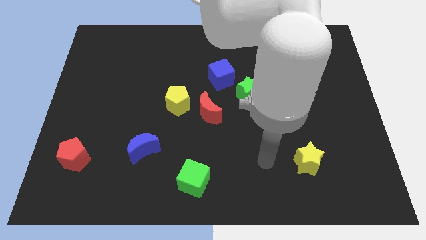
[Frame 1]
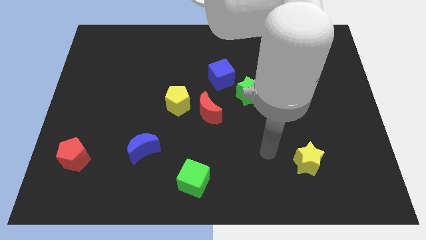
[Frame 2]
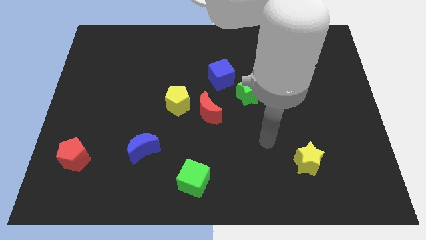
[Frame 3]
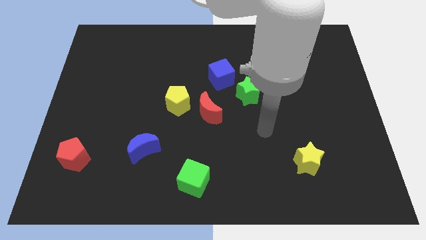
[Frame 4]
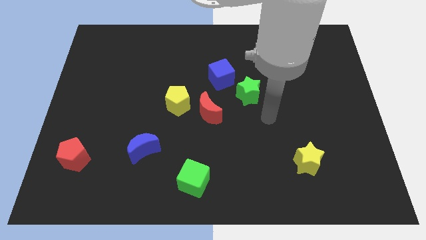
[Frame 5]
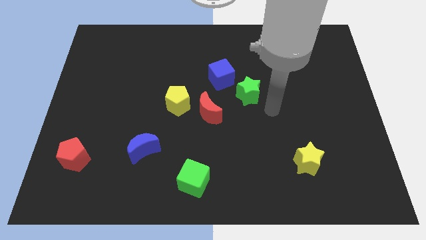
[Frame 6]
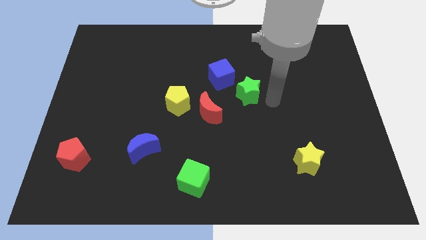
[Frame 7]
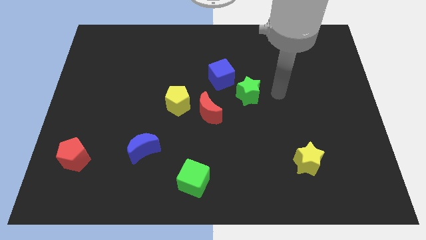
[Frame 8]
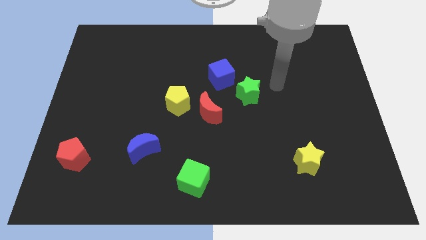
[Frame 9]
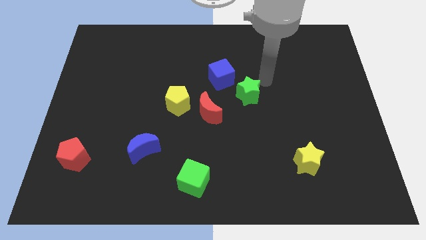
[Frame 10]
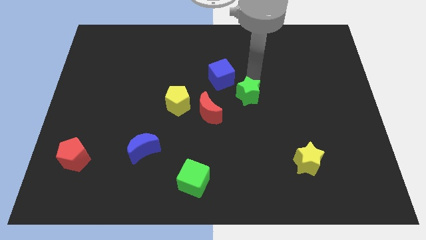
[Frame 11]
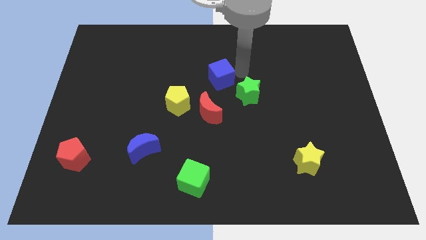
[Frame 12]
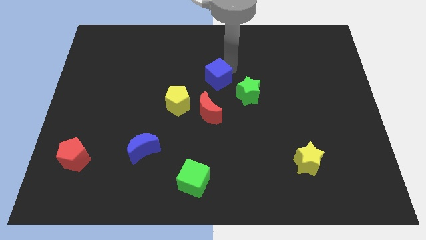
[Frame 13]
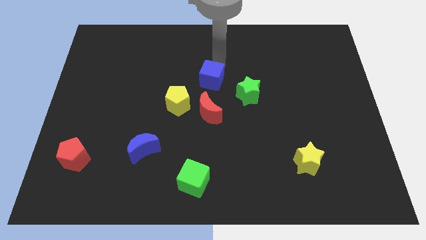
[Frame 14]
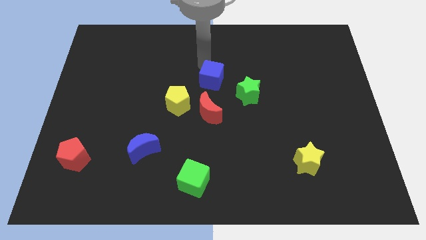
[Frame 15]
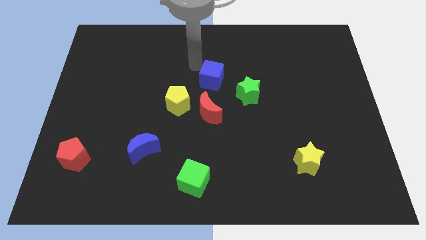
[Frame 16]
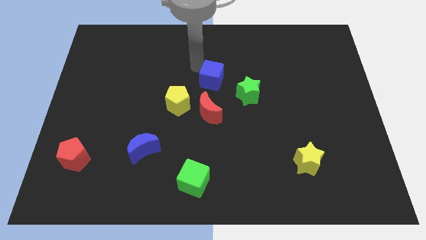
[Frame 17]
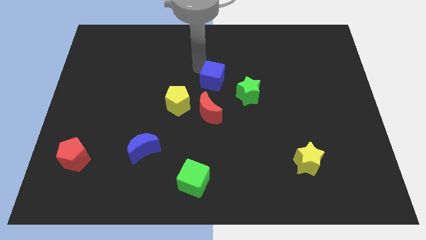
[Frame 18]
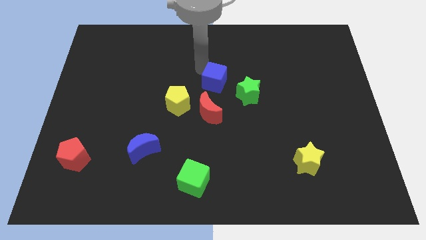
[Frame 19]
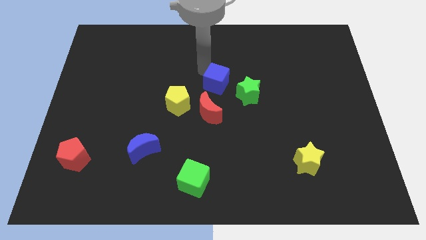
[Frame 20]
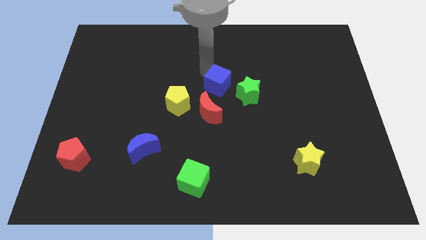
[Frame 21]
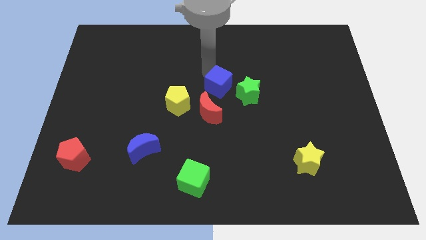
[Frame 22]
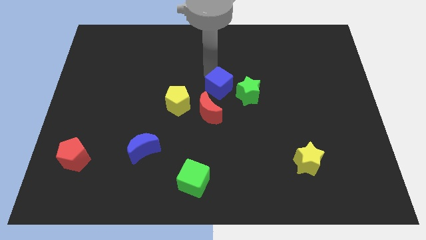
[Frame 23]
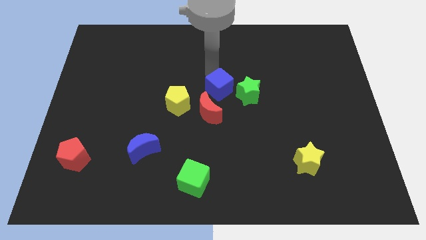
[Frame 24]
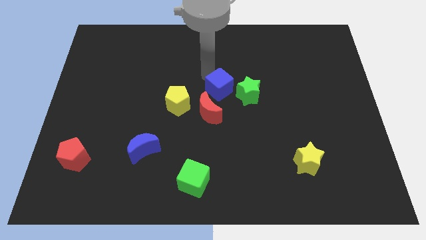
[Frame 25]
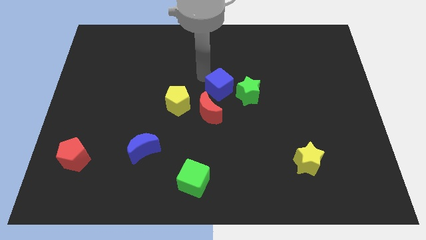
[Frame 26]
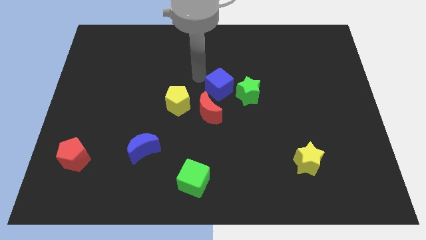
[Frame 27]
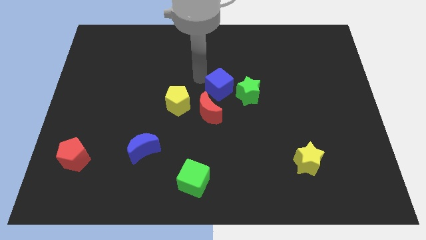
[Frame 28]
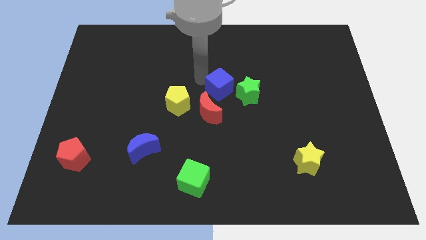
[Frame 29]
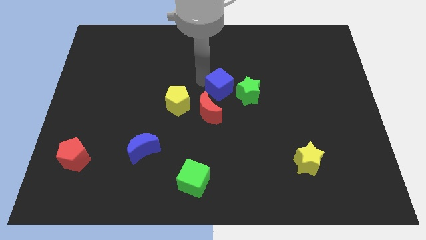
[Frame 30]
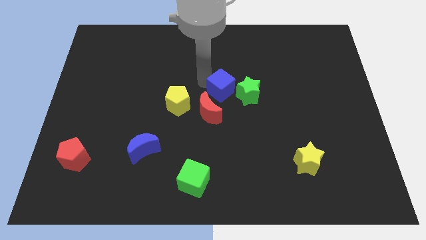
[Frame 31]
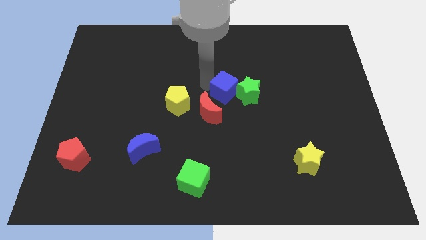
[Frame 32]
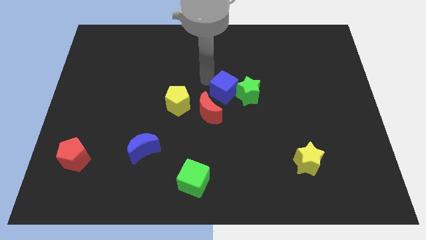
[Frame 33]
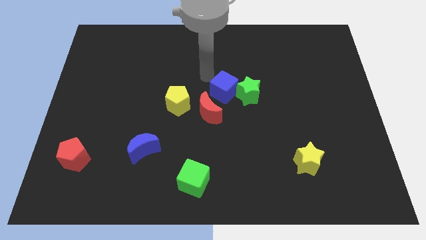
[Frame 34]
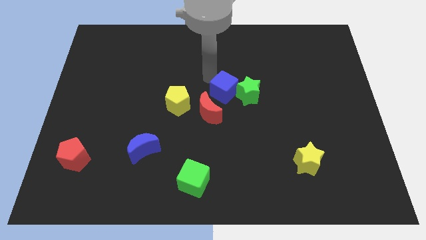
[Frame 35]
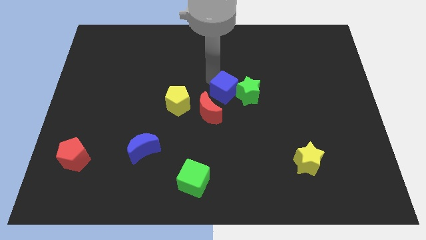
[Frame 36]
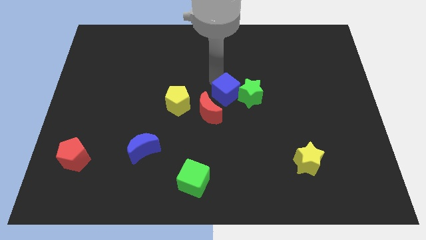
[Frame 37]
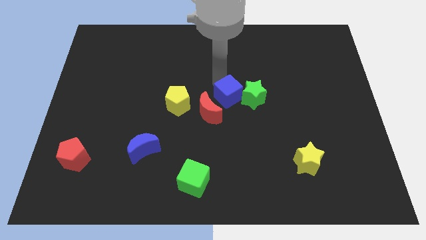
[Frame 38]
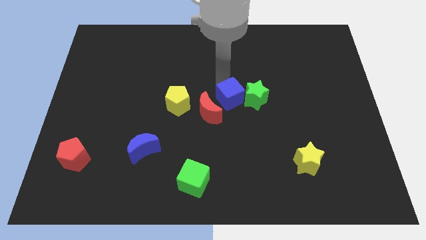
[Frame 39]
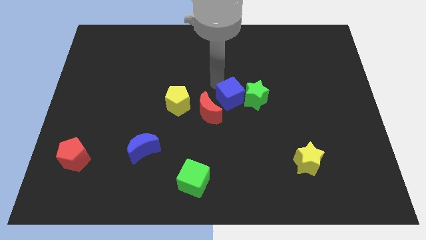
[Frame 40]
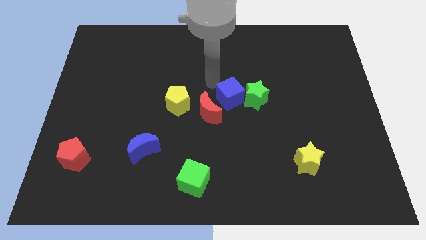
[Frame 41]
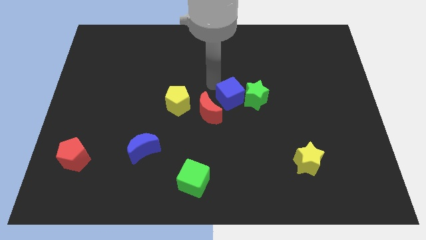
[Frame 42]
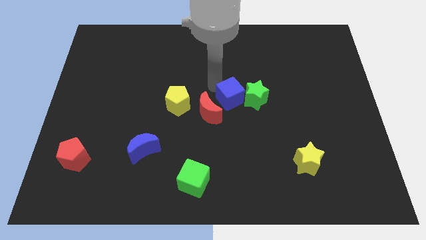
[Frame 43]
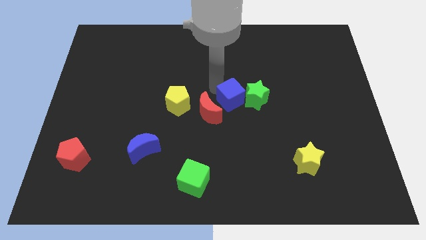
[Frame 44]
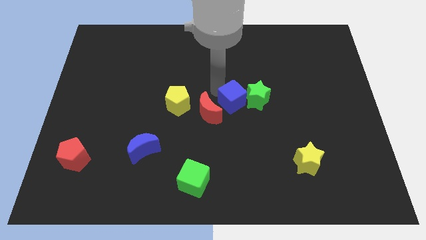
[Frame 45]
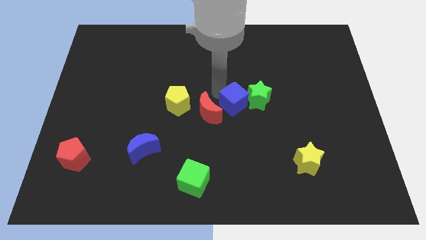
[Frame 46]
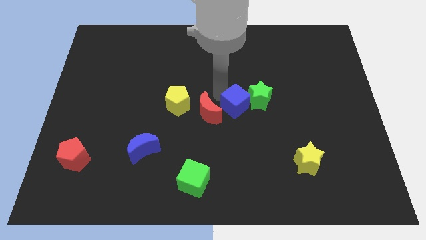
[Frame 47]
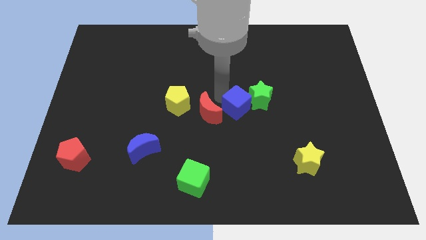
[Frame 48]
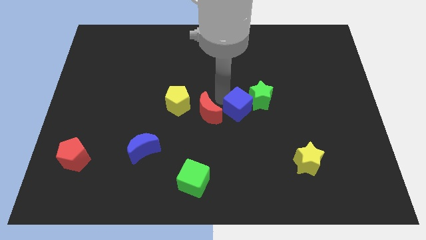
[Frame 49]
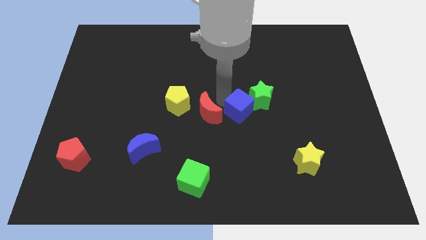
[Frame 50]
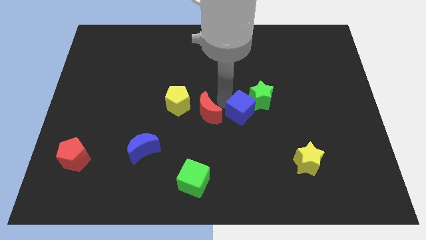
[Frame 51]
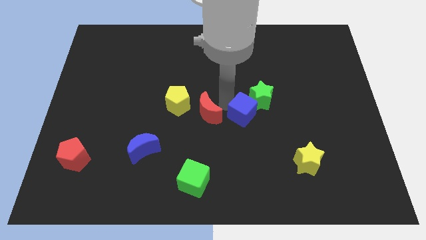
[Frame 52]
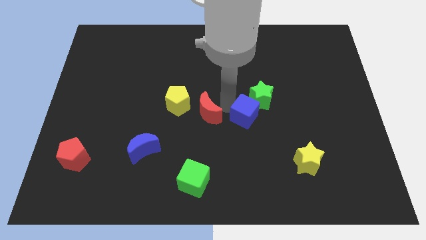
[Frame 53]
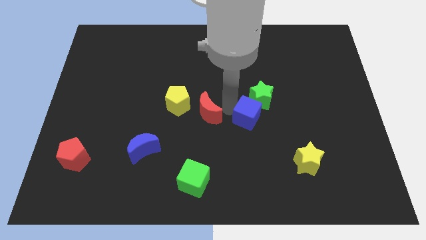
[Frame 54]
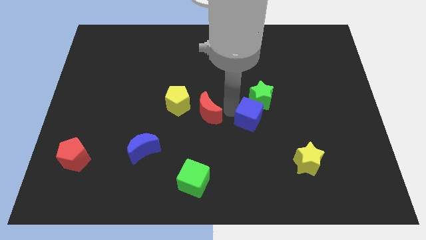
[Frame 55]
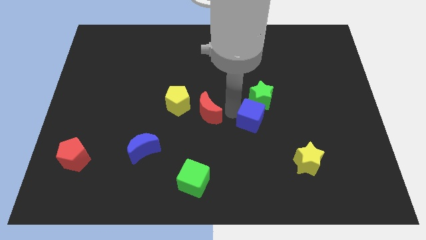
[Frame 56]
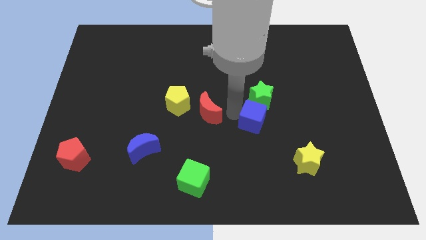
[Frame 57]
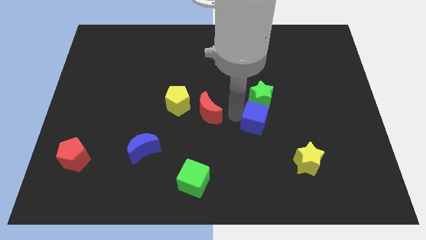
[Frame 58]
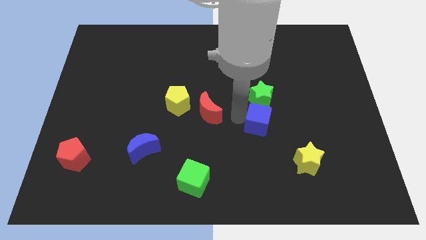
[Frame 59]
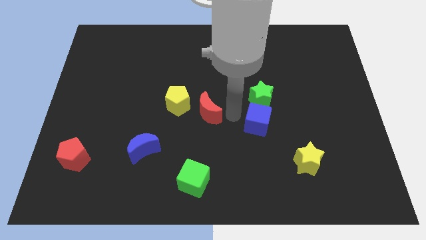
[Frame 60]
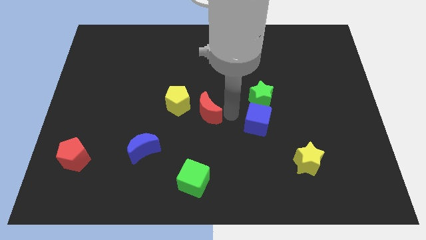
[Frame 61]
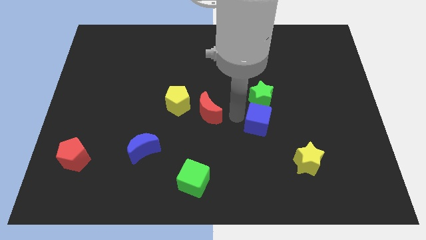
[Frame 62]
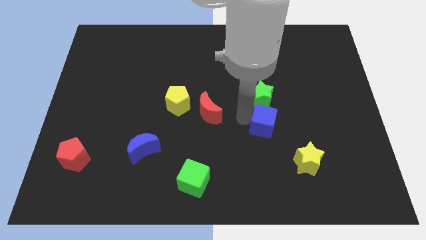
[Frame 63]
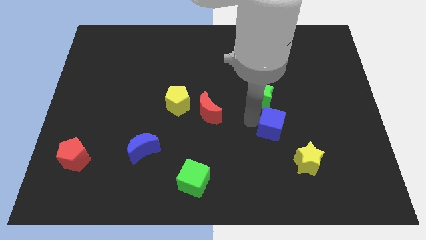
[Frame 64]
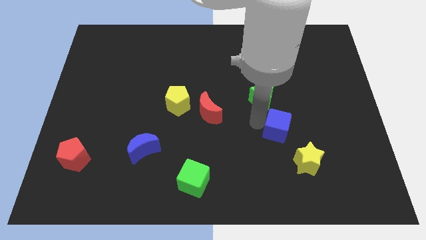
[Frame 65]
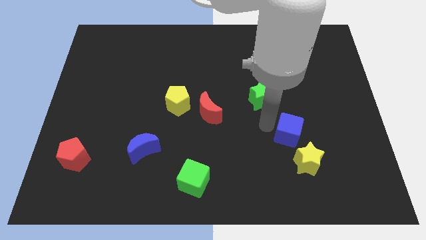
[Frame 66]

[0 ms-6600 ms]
slide the blue cube diagonally down and to the right

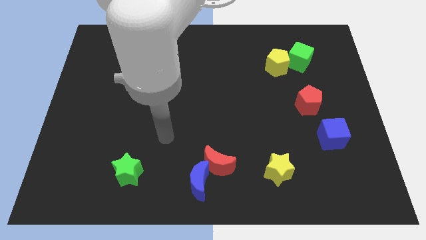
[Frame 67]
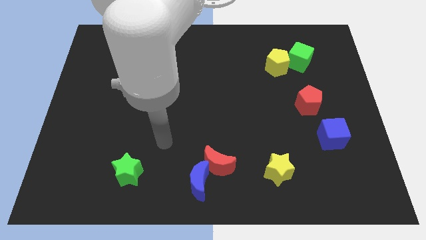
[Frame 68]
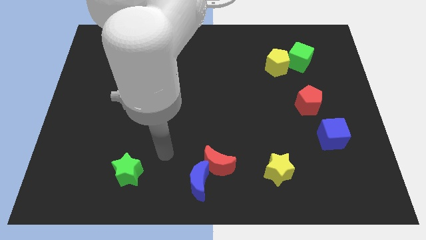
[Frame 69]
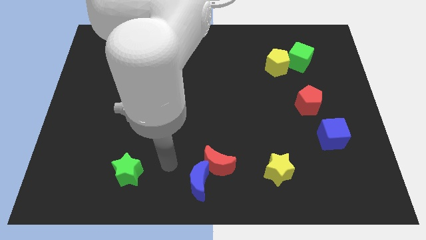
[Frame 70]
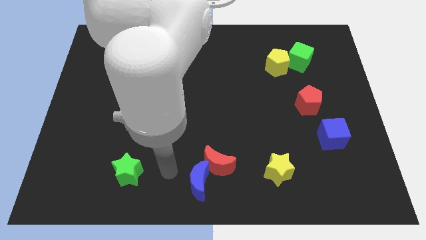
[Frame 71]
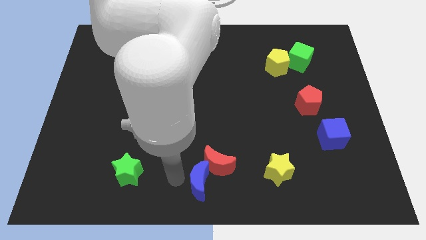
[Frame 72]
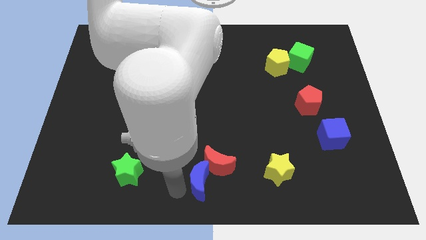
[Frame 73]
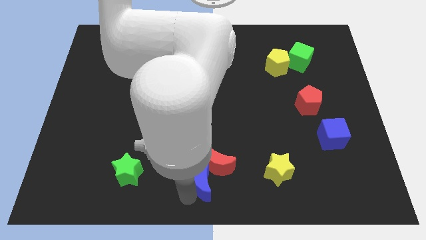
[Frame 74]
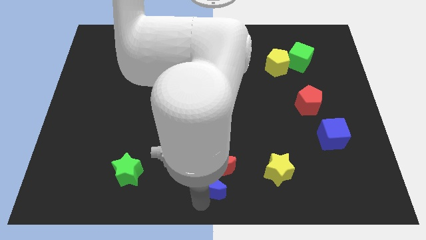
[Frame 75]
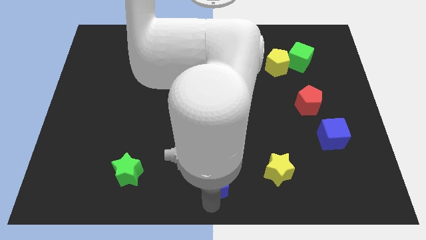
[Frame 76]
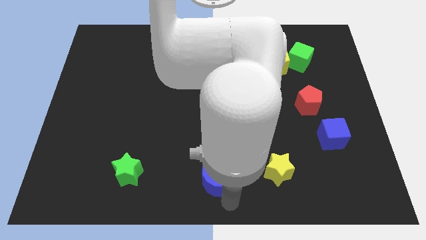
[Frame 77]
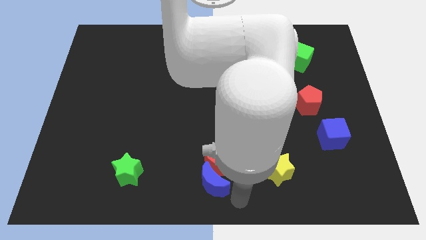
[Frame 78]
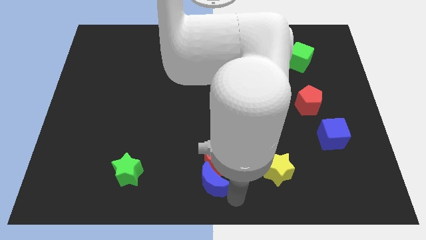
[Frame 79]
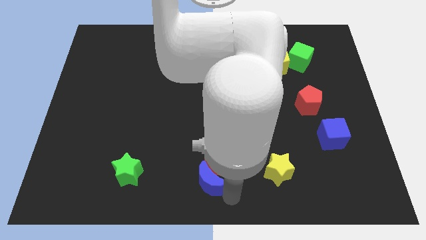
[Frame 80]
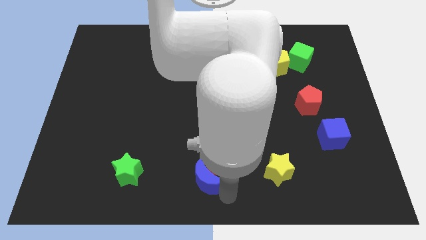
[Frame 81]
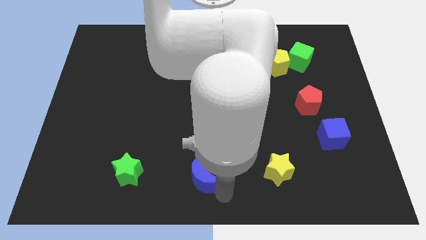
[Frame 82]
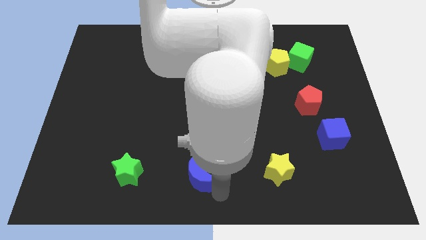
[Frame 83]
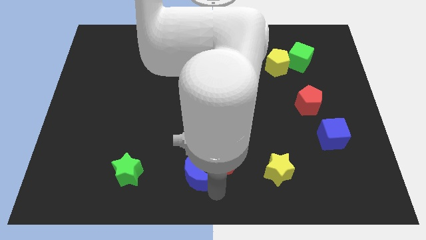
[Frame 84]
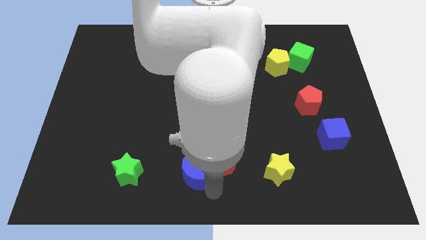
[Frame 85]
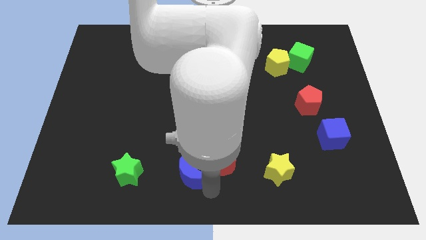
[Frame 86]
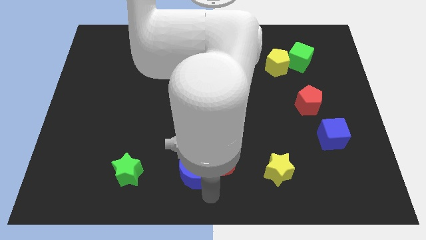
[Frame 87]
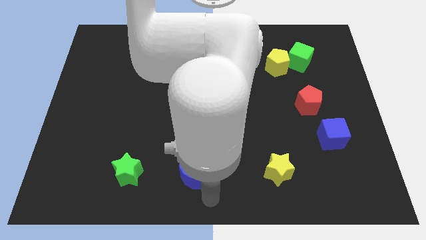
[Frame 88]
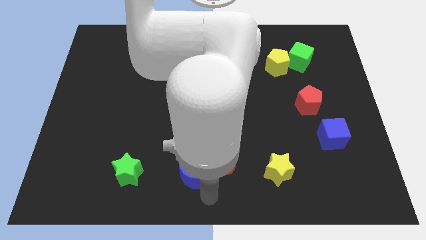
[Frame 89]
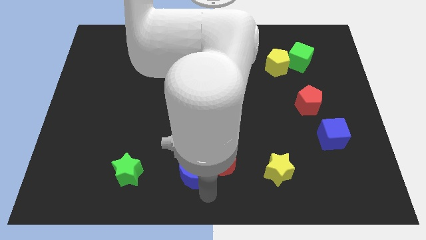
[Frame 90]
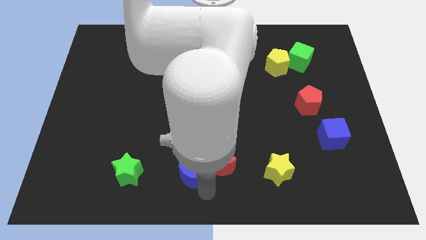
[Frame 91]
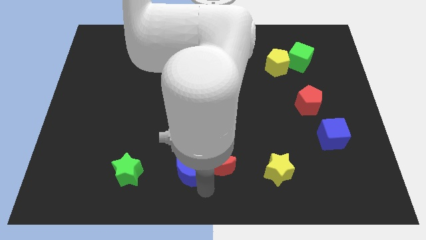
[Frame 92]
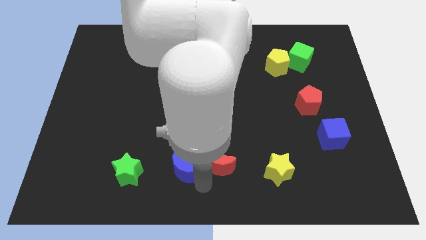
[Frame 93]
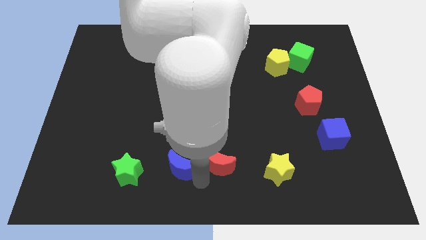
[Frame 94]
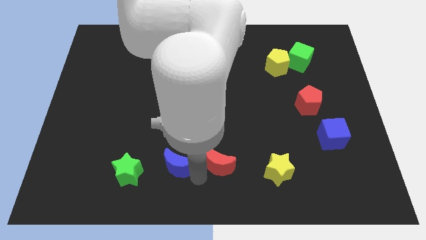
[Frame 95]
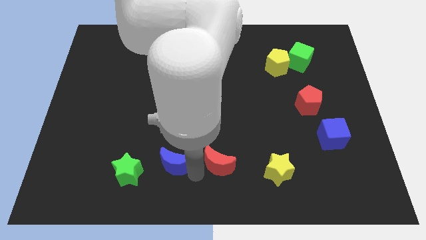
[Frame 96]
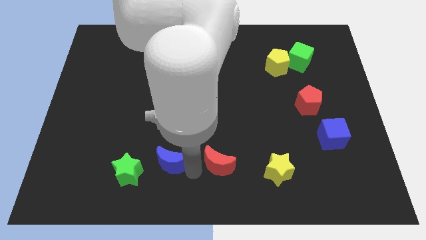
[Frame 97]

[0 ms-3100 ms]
push the blue moon upwards and then left a little
